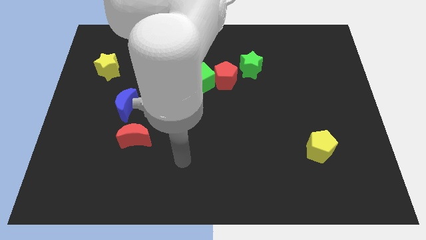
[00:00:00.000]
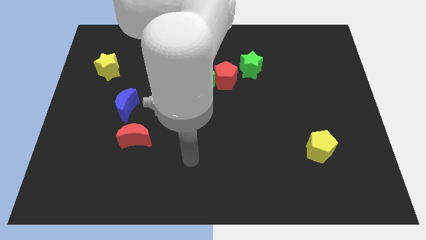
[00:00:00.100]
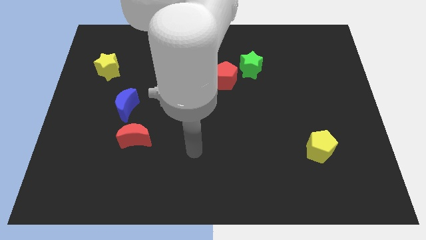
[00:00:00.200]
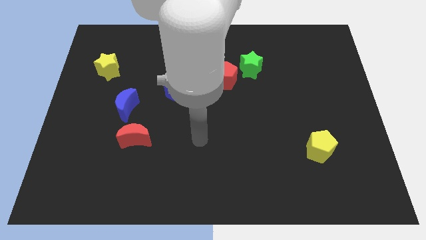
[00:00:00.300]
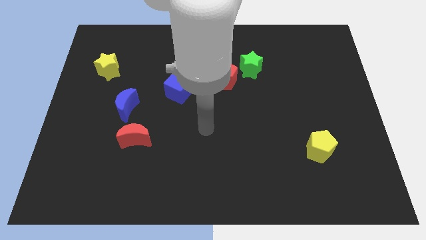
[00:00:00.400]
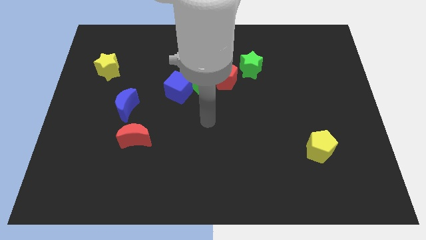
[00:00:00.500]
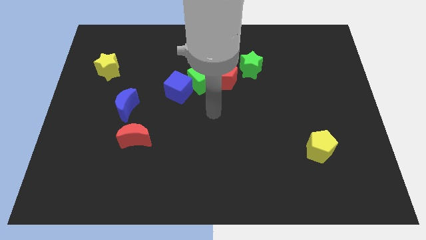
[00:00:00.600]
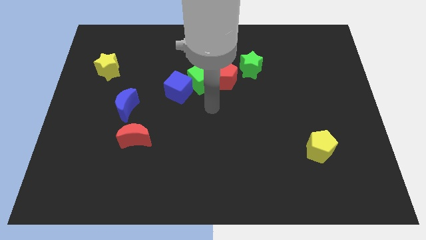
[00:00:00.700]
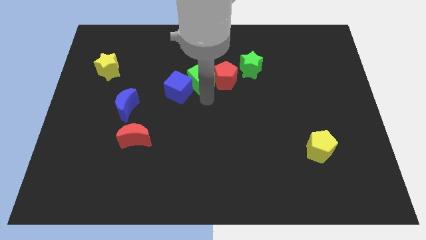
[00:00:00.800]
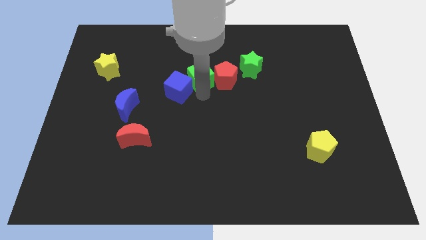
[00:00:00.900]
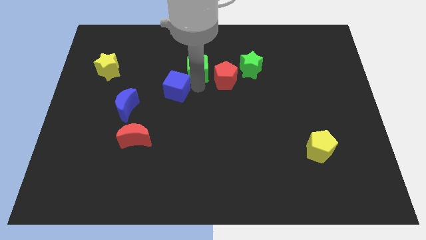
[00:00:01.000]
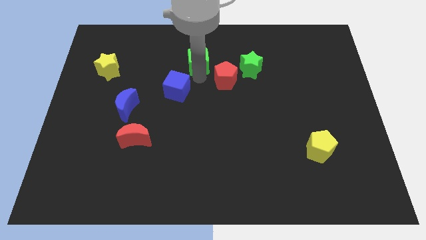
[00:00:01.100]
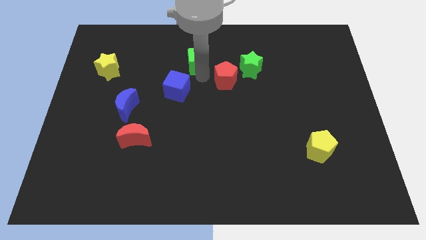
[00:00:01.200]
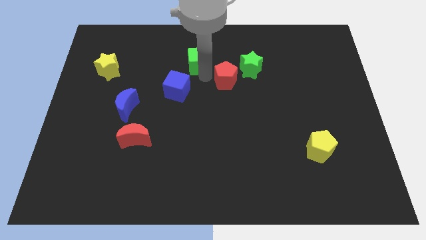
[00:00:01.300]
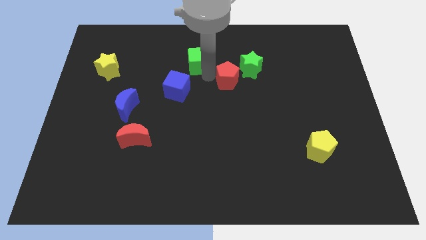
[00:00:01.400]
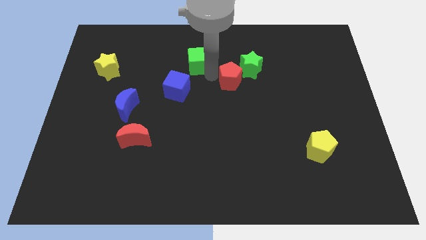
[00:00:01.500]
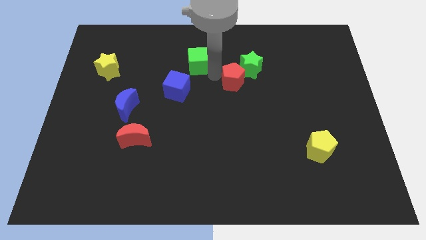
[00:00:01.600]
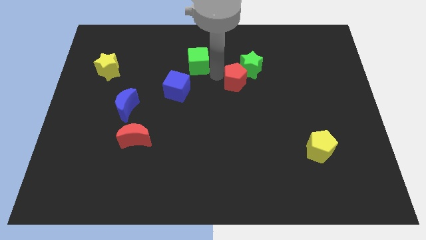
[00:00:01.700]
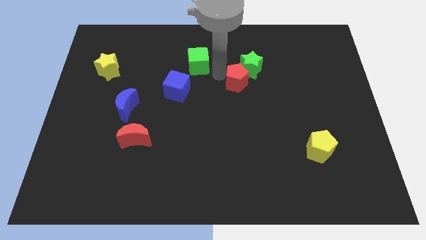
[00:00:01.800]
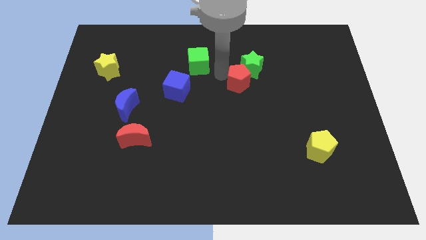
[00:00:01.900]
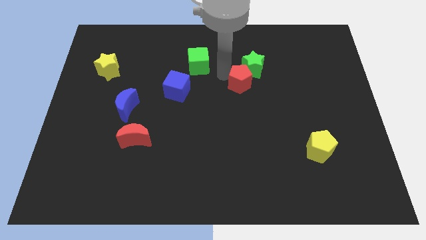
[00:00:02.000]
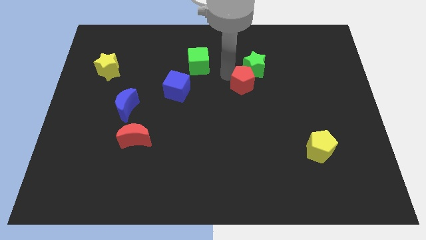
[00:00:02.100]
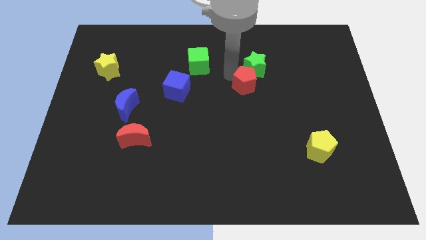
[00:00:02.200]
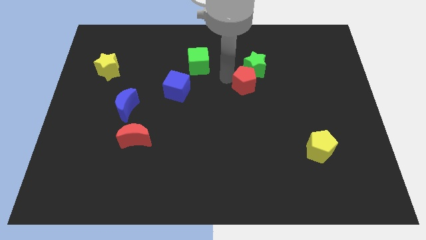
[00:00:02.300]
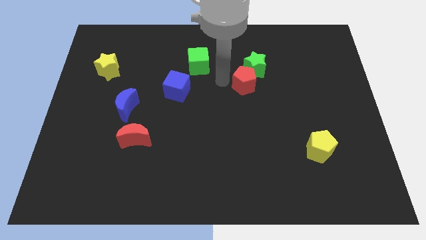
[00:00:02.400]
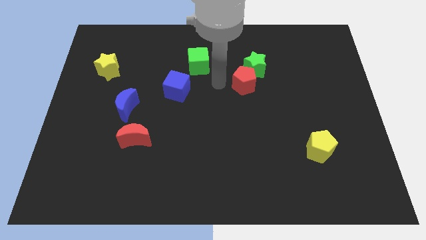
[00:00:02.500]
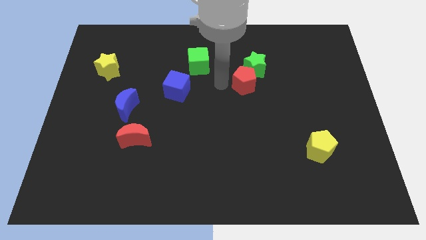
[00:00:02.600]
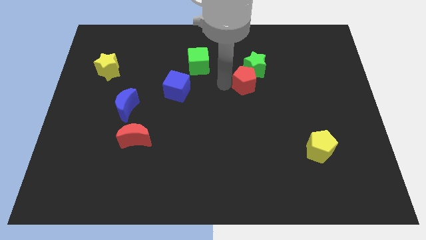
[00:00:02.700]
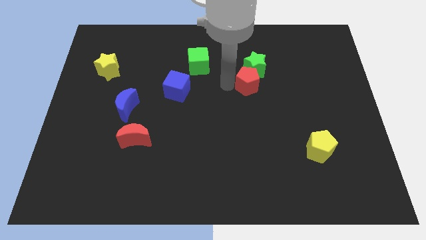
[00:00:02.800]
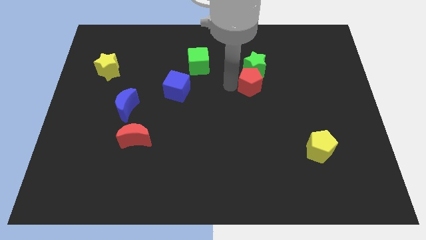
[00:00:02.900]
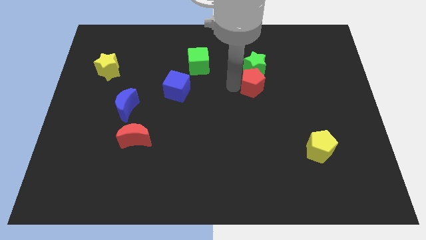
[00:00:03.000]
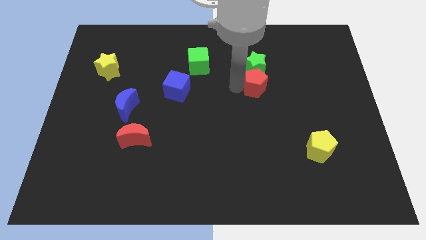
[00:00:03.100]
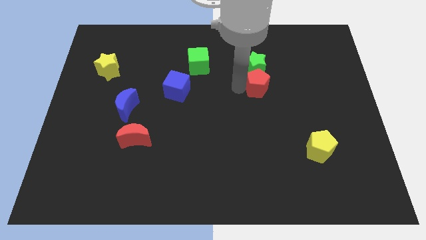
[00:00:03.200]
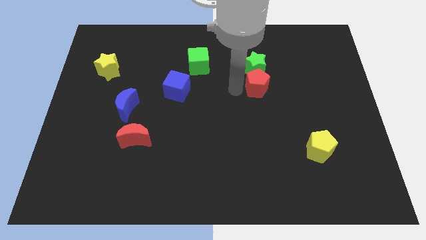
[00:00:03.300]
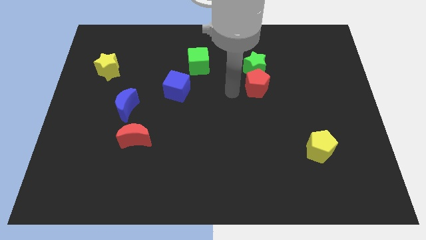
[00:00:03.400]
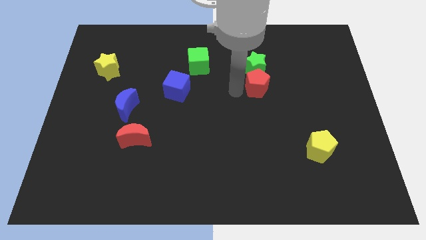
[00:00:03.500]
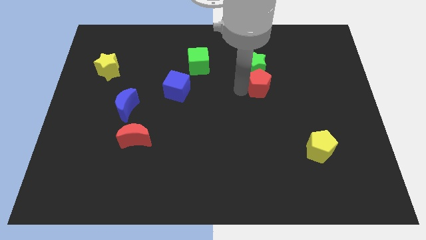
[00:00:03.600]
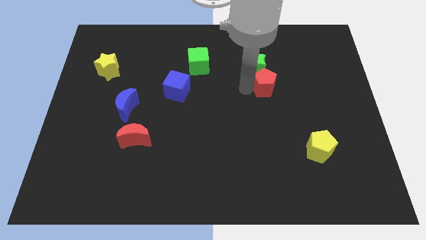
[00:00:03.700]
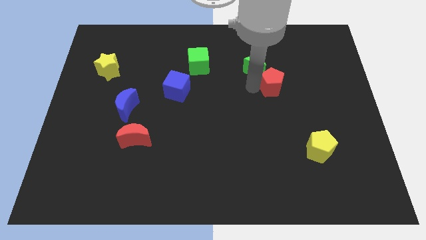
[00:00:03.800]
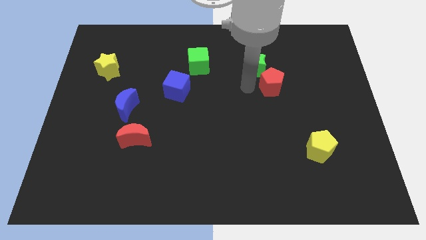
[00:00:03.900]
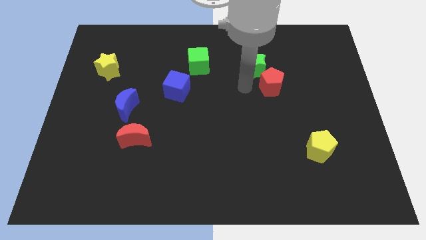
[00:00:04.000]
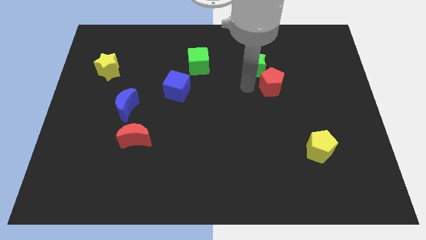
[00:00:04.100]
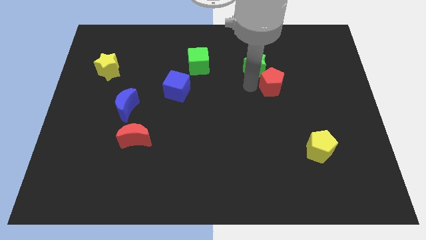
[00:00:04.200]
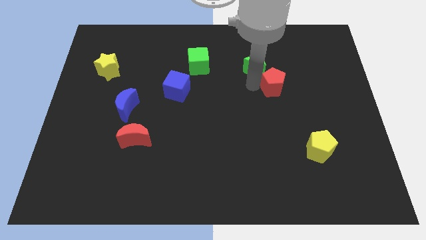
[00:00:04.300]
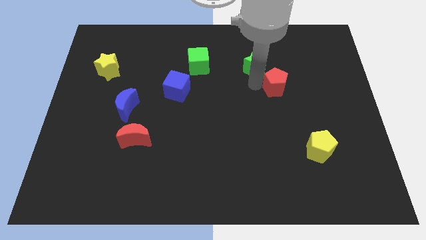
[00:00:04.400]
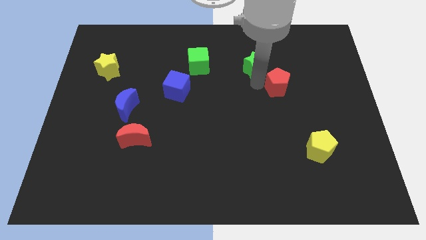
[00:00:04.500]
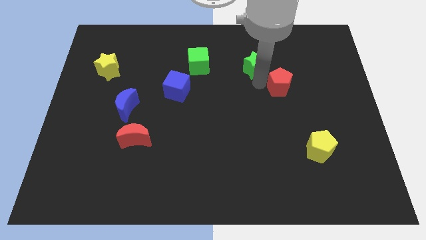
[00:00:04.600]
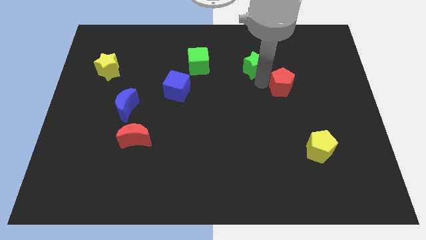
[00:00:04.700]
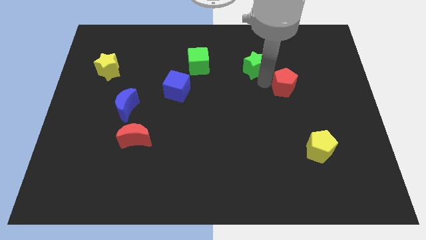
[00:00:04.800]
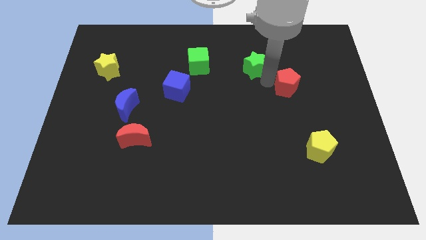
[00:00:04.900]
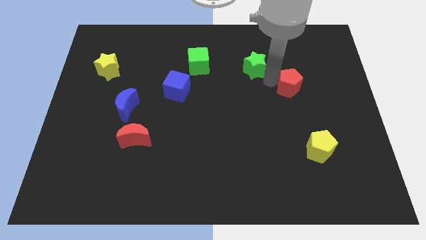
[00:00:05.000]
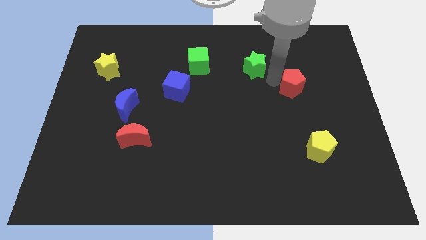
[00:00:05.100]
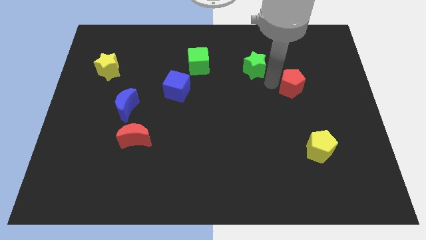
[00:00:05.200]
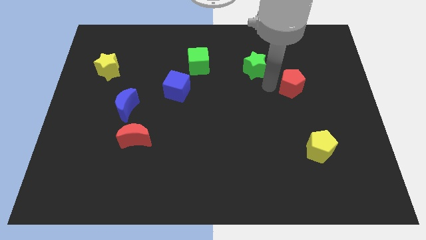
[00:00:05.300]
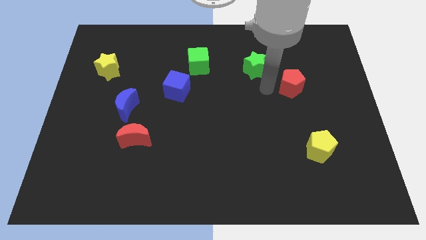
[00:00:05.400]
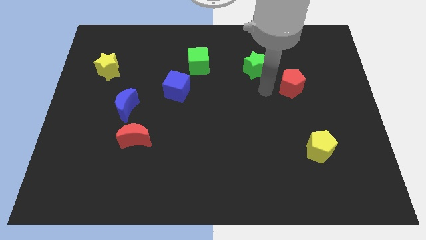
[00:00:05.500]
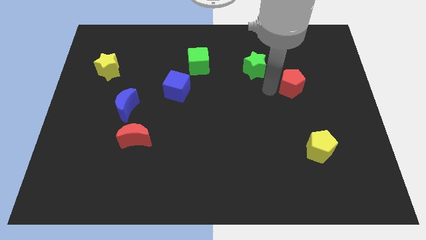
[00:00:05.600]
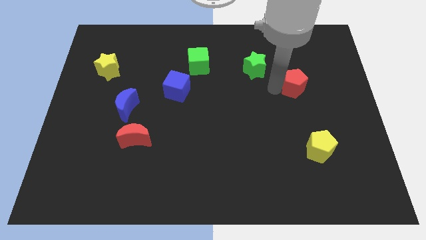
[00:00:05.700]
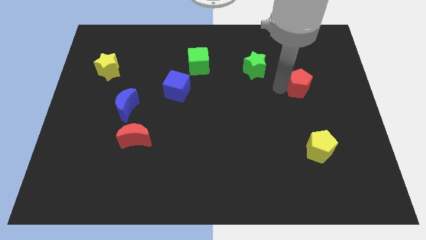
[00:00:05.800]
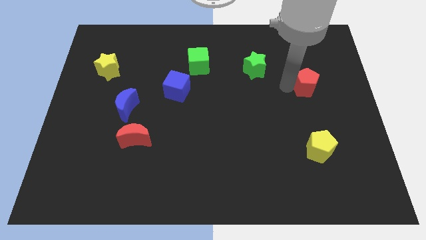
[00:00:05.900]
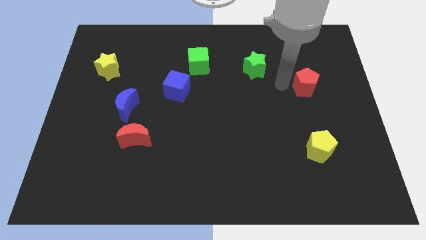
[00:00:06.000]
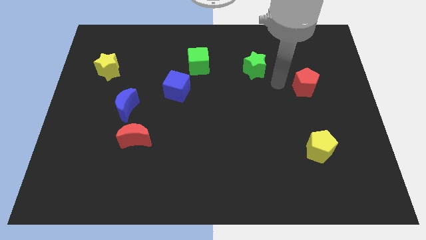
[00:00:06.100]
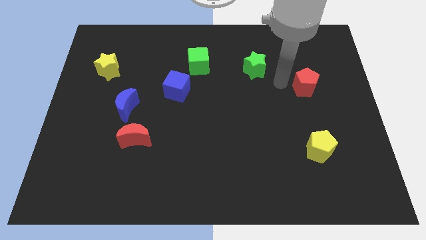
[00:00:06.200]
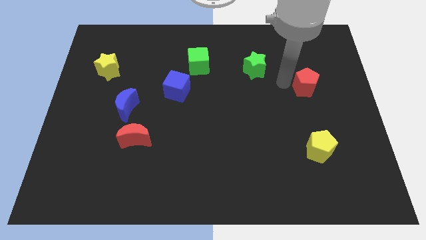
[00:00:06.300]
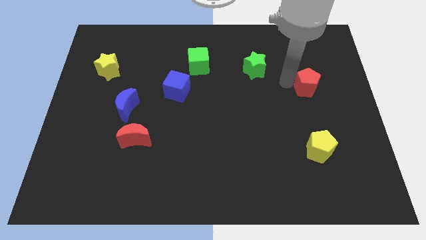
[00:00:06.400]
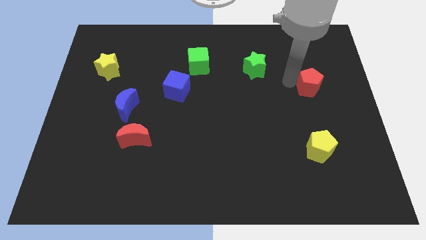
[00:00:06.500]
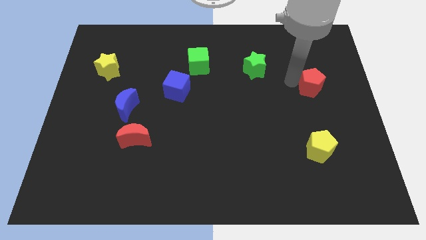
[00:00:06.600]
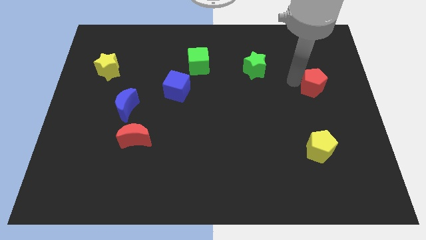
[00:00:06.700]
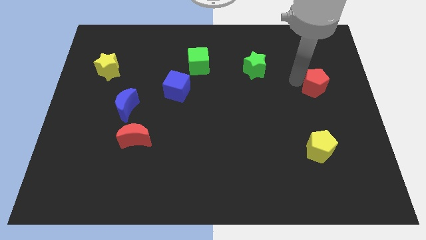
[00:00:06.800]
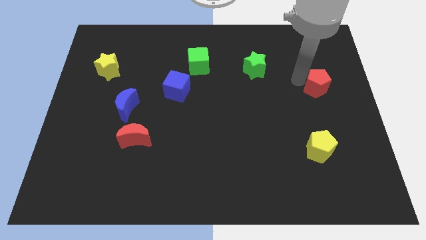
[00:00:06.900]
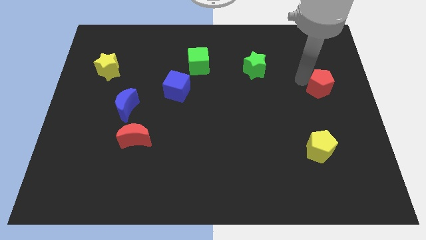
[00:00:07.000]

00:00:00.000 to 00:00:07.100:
move the red pentagon to the right side
